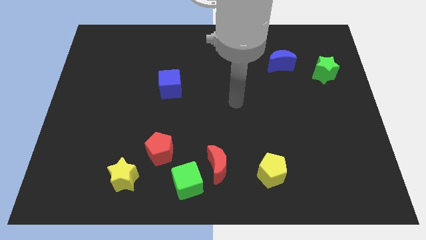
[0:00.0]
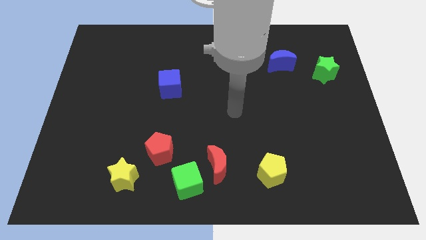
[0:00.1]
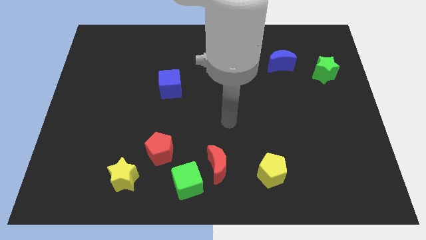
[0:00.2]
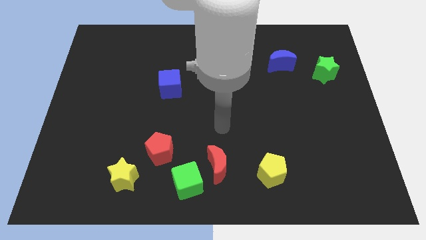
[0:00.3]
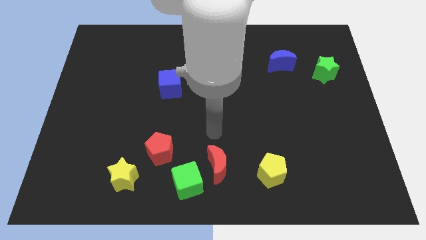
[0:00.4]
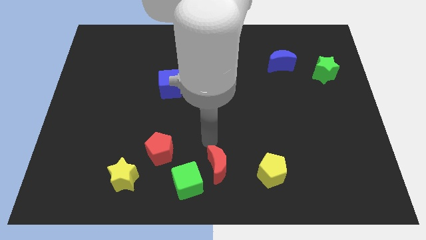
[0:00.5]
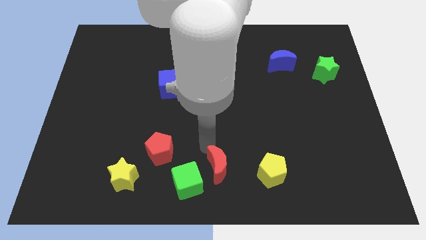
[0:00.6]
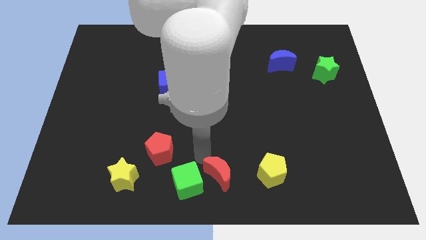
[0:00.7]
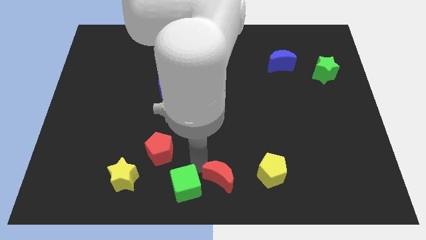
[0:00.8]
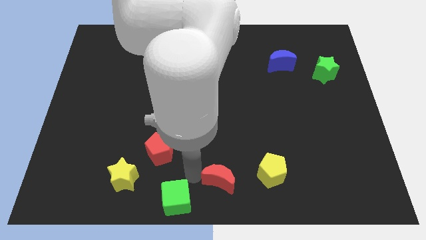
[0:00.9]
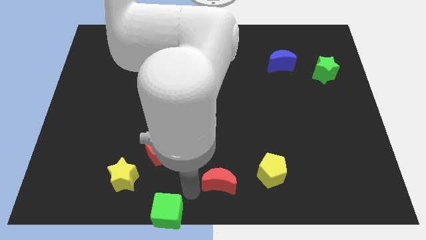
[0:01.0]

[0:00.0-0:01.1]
pull the red moon apart from the green cube

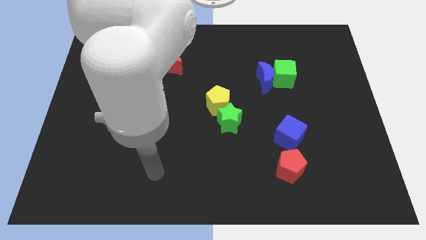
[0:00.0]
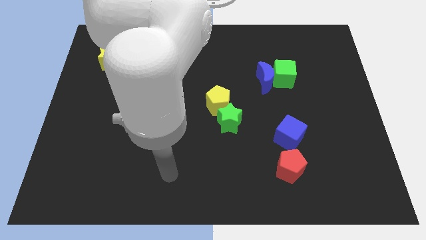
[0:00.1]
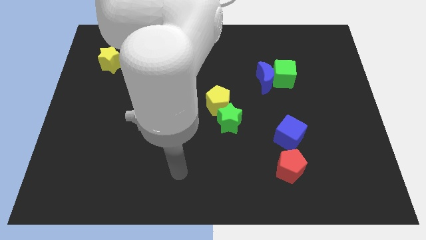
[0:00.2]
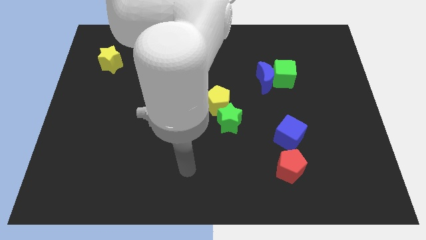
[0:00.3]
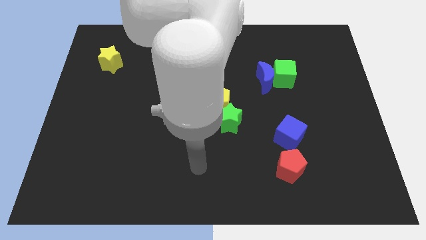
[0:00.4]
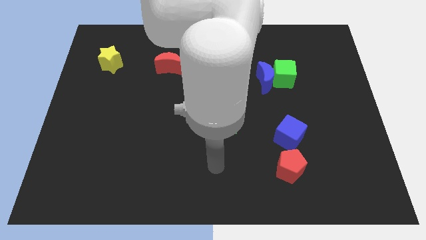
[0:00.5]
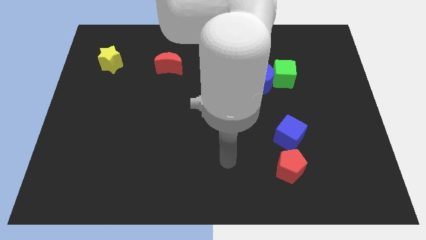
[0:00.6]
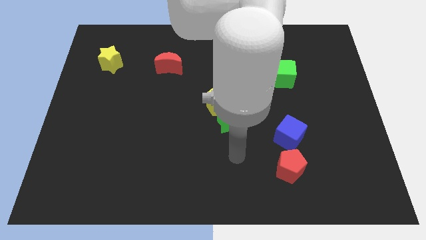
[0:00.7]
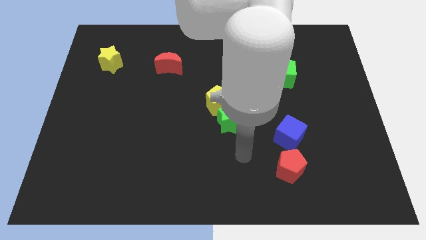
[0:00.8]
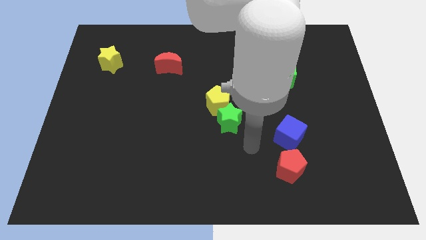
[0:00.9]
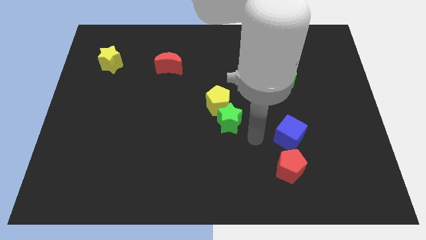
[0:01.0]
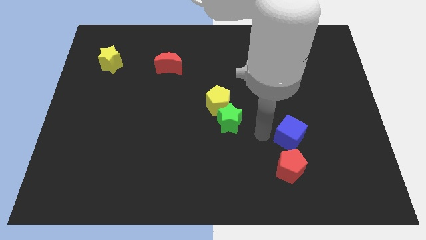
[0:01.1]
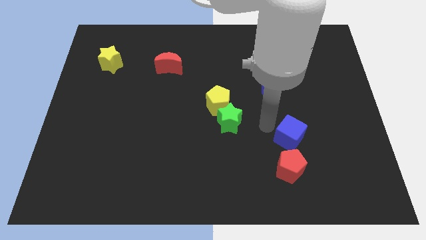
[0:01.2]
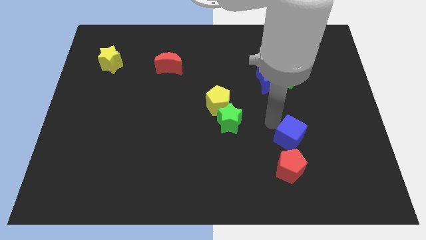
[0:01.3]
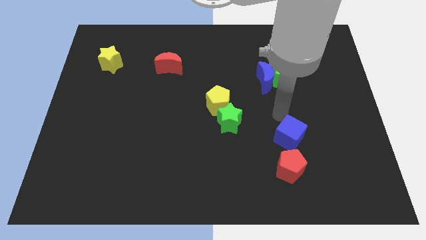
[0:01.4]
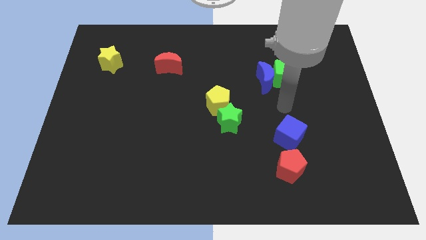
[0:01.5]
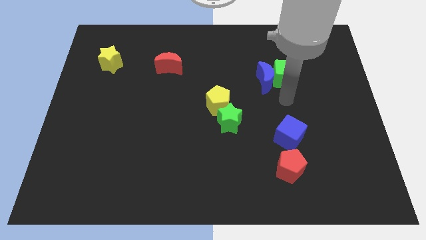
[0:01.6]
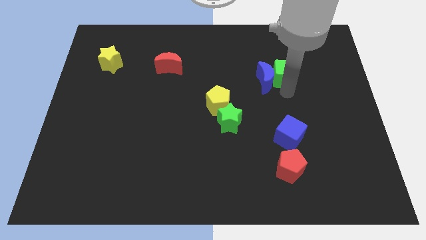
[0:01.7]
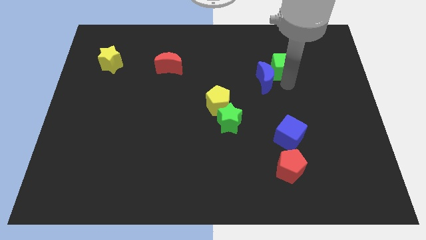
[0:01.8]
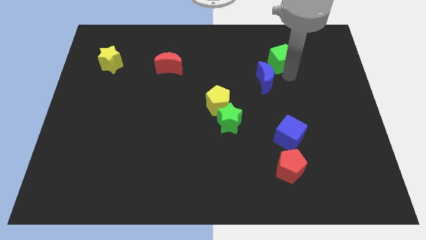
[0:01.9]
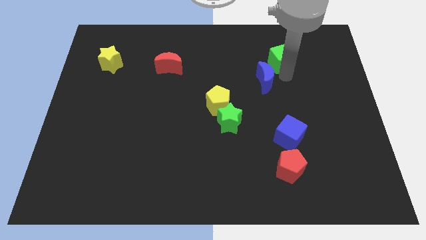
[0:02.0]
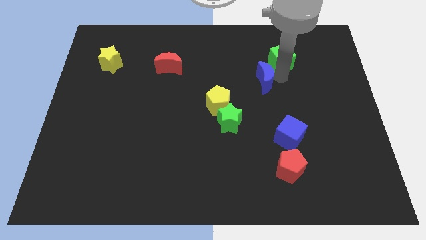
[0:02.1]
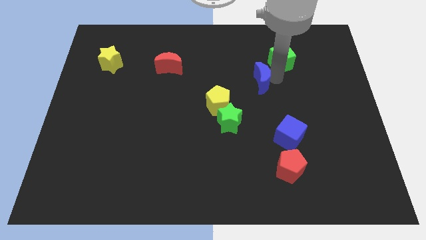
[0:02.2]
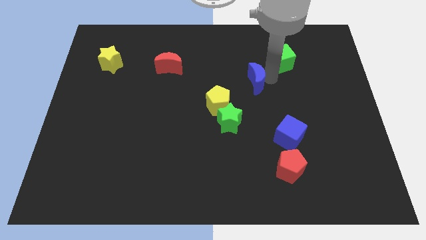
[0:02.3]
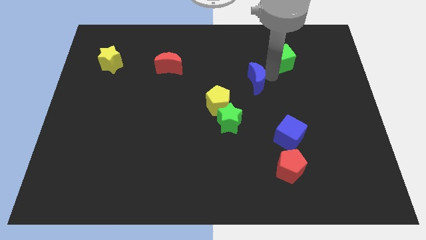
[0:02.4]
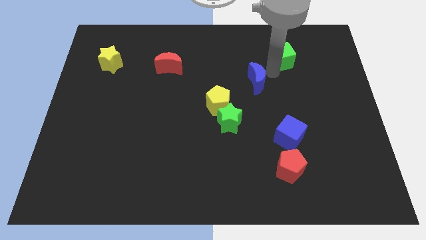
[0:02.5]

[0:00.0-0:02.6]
pull the blue moon apart from the green cube

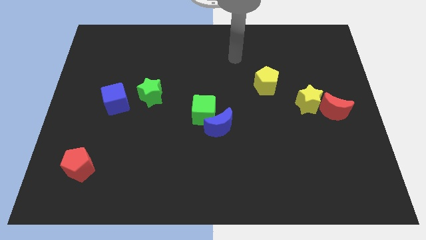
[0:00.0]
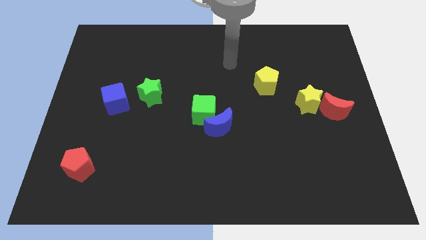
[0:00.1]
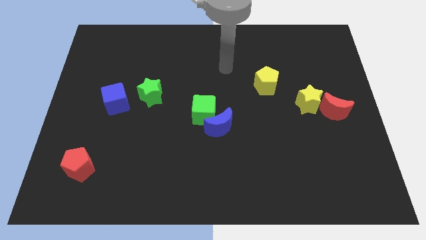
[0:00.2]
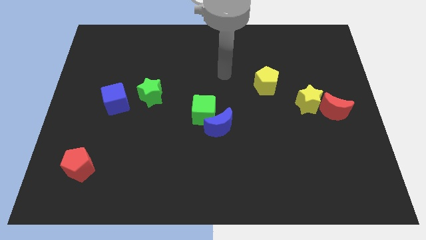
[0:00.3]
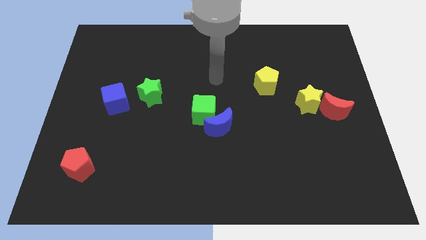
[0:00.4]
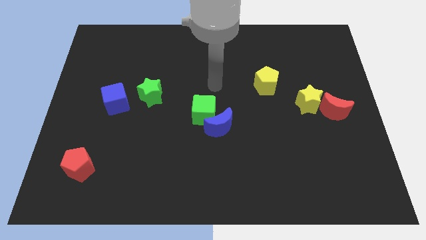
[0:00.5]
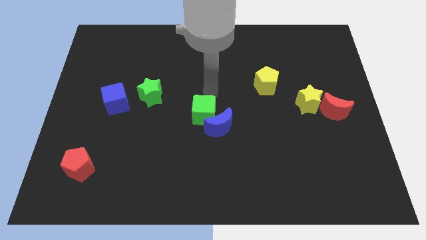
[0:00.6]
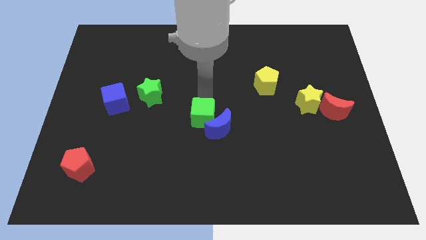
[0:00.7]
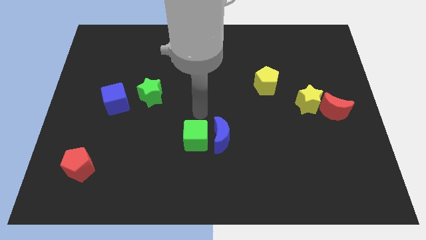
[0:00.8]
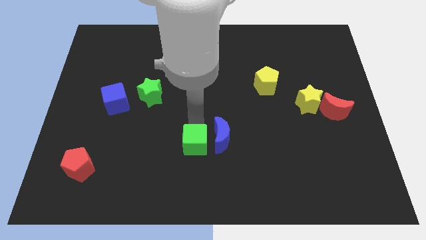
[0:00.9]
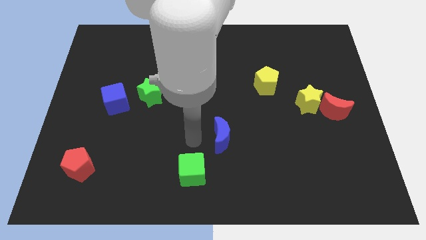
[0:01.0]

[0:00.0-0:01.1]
move the blue moon away from the green cube

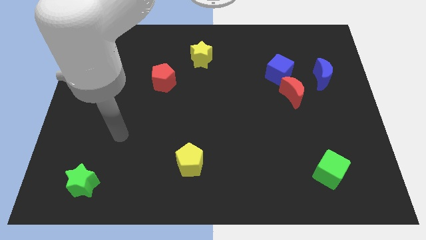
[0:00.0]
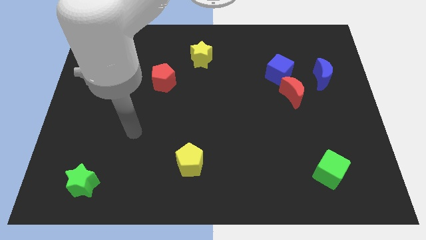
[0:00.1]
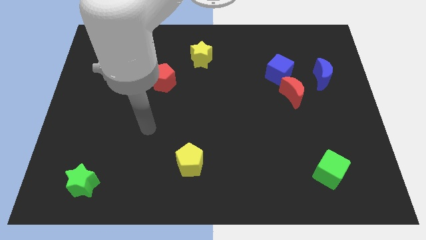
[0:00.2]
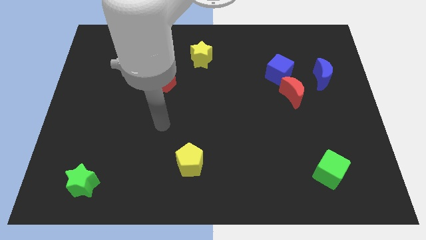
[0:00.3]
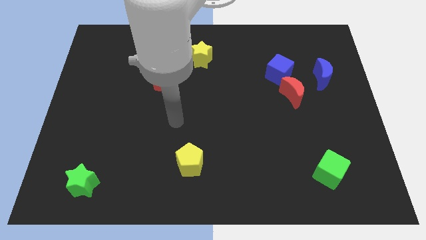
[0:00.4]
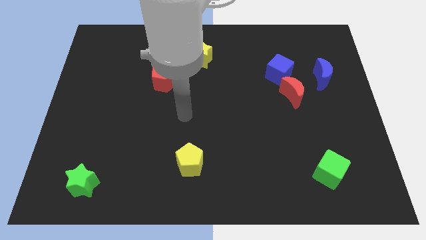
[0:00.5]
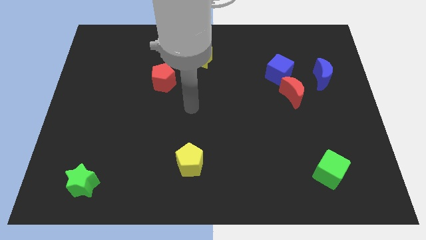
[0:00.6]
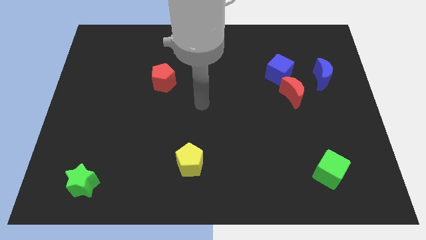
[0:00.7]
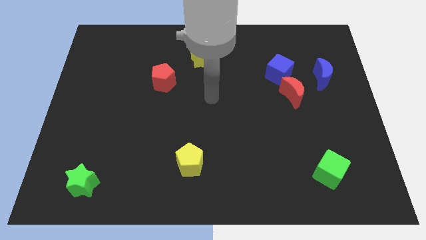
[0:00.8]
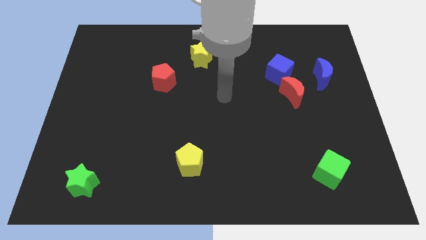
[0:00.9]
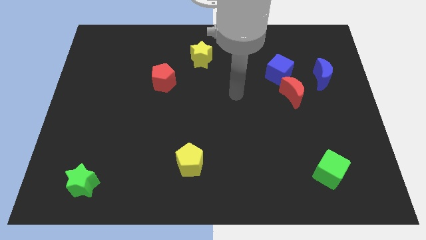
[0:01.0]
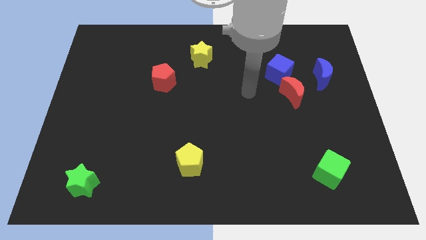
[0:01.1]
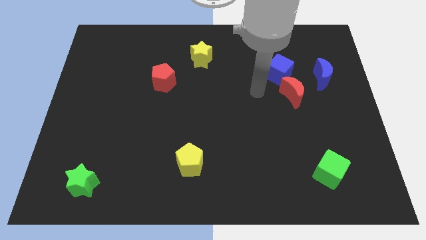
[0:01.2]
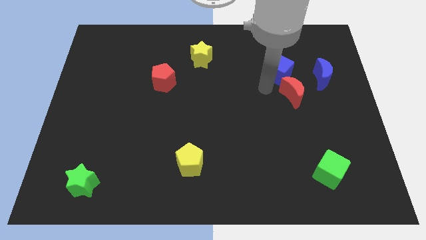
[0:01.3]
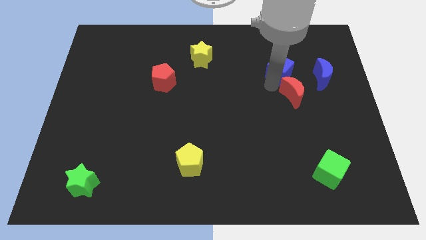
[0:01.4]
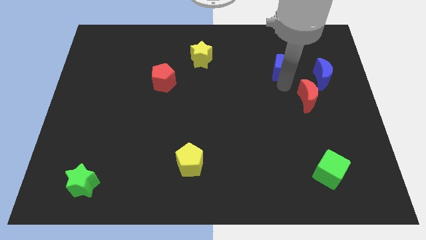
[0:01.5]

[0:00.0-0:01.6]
separate the blue cube from the red moon

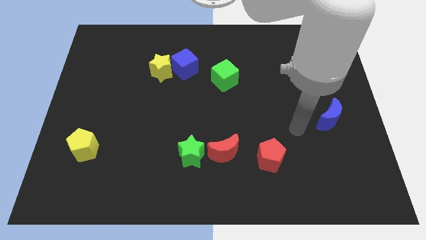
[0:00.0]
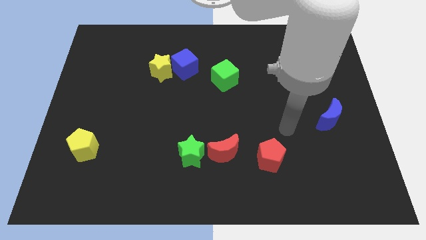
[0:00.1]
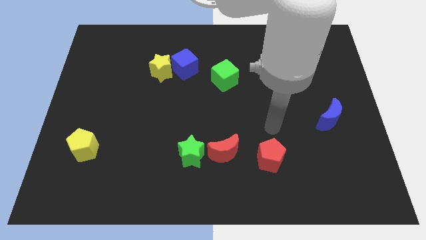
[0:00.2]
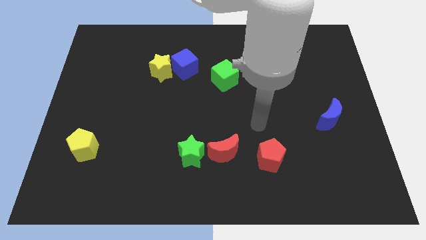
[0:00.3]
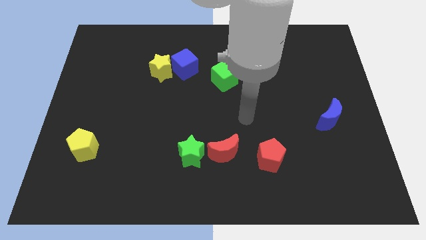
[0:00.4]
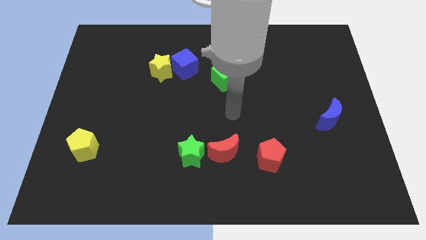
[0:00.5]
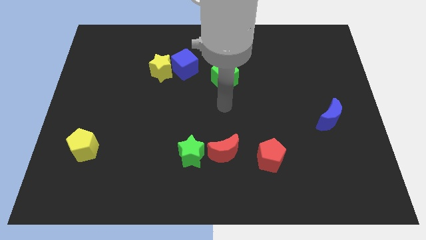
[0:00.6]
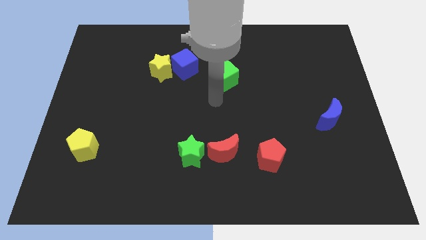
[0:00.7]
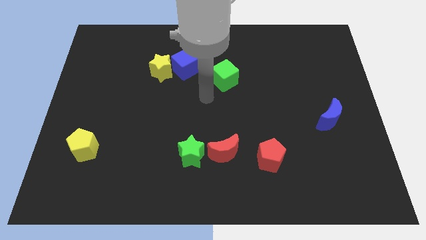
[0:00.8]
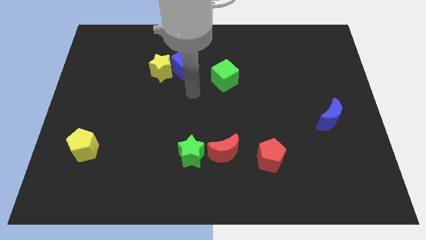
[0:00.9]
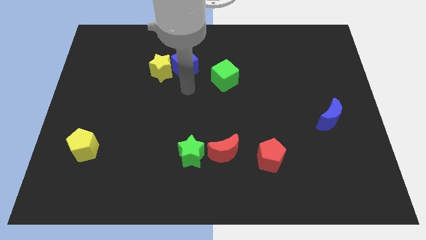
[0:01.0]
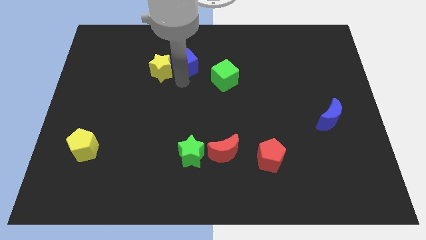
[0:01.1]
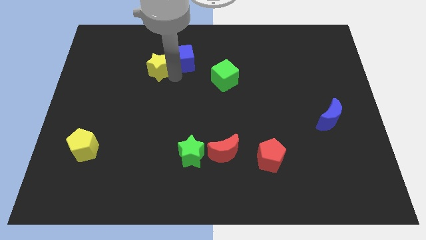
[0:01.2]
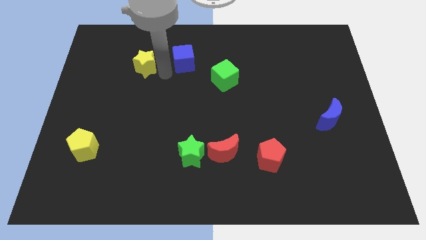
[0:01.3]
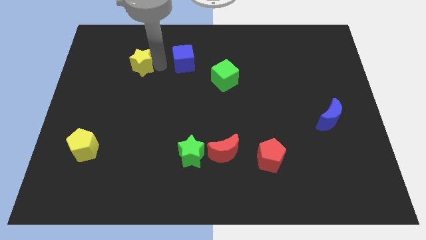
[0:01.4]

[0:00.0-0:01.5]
pull the blue cube apart from the yellow star

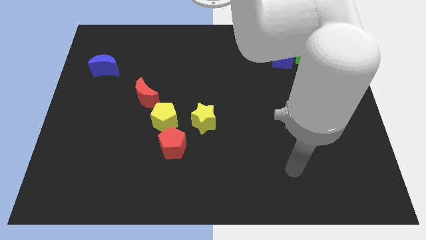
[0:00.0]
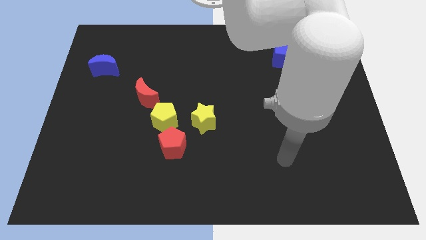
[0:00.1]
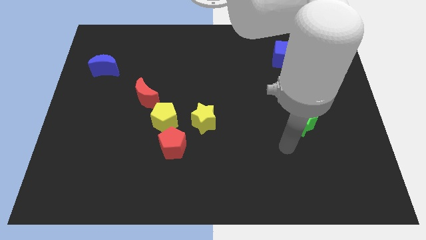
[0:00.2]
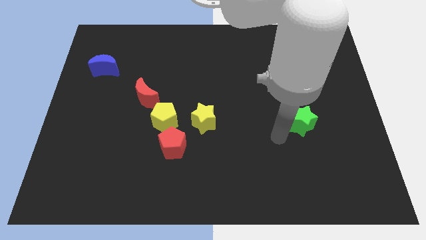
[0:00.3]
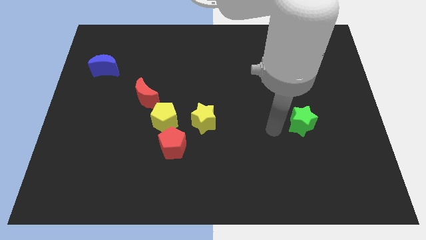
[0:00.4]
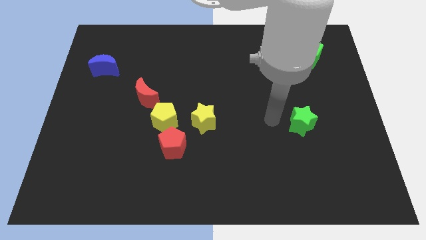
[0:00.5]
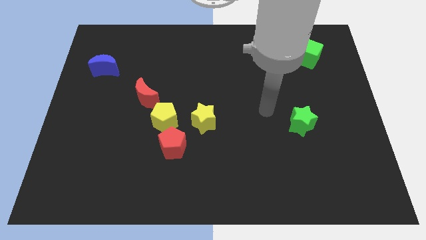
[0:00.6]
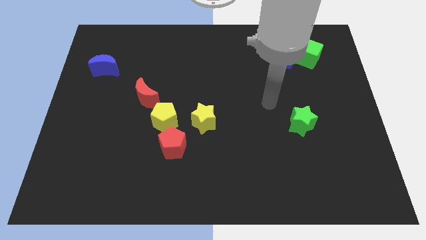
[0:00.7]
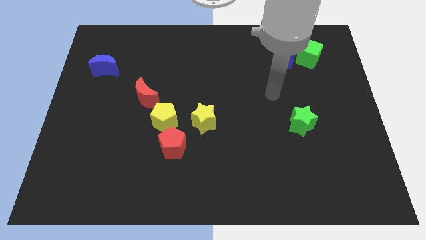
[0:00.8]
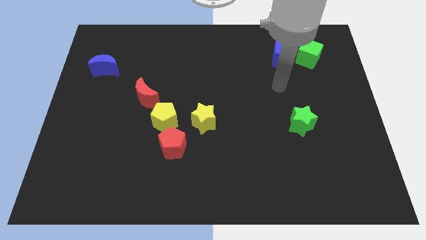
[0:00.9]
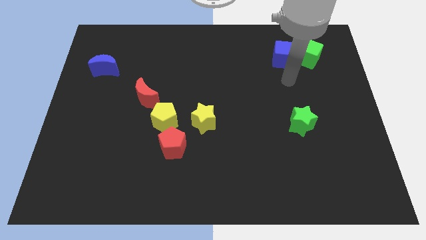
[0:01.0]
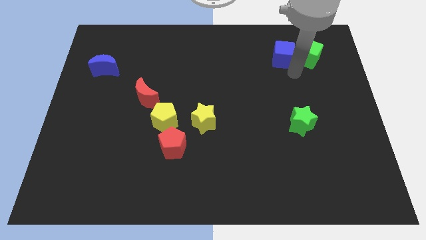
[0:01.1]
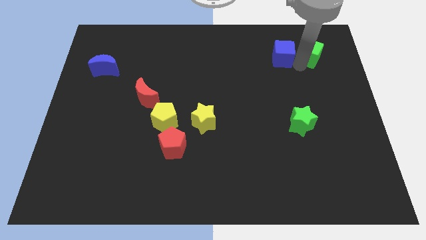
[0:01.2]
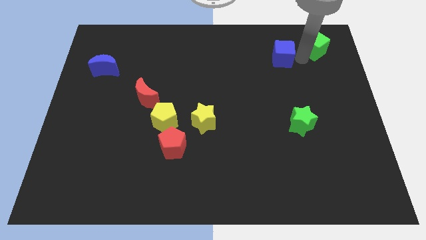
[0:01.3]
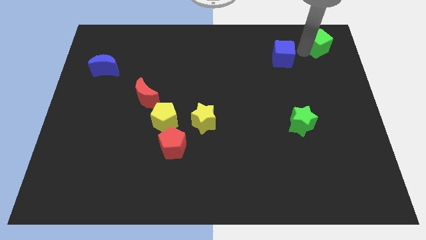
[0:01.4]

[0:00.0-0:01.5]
pull the blue cube apart from the green cube
